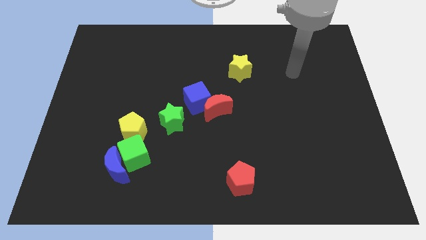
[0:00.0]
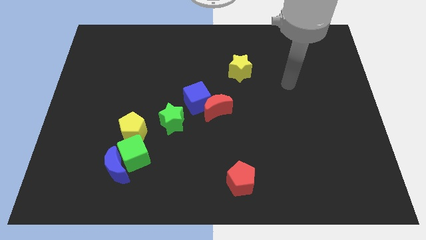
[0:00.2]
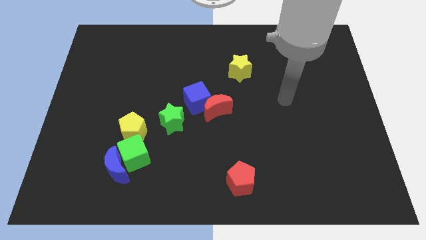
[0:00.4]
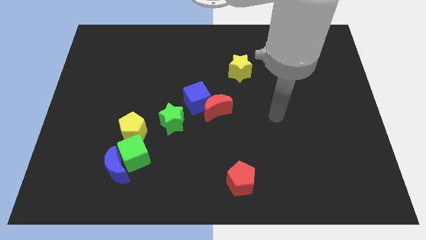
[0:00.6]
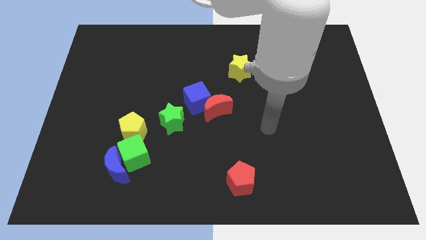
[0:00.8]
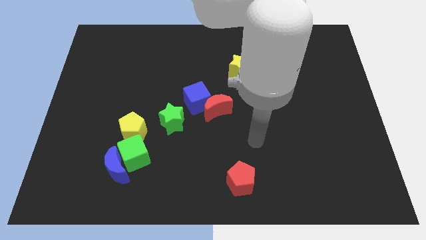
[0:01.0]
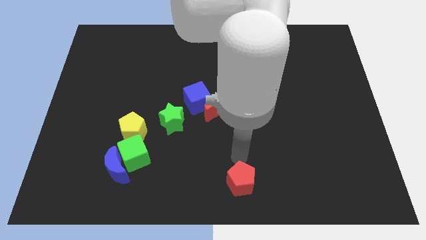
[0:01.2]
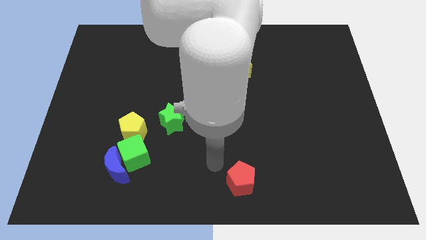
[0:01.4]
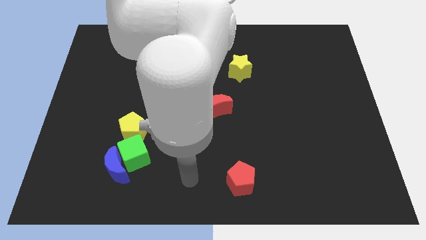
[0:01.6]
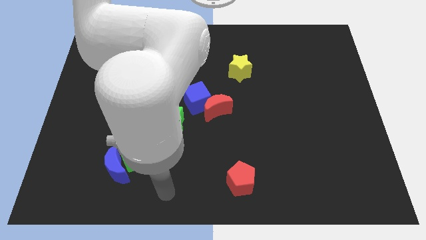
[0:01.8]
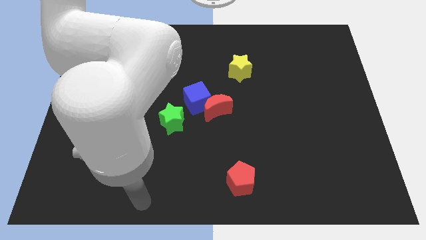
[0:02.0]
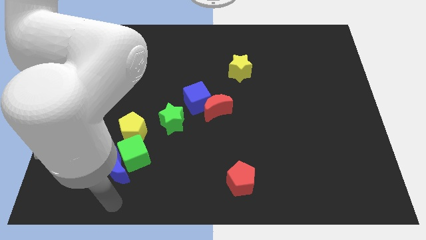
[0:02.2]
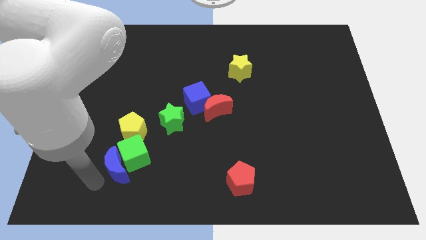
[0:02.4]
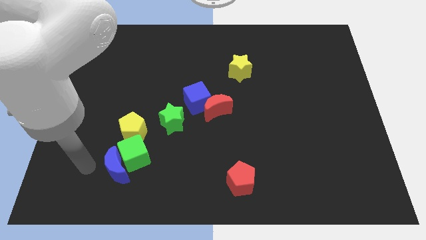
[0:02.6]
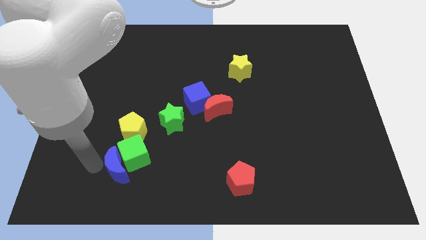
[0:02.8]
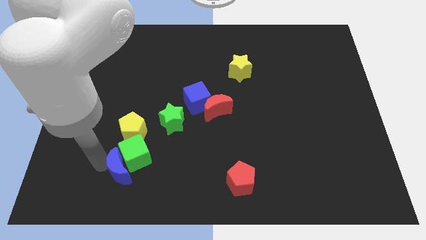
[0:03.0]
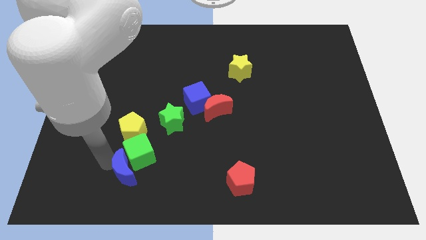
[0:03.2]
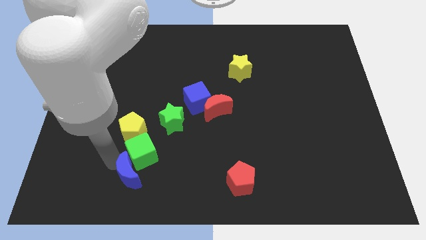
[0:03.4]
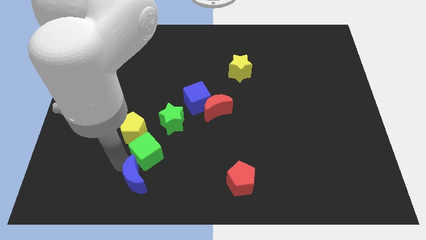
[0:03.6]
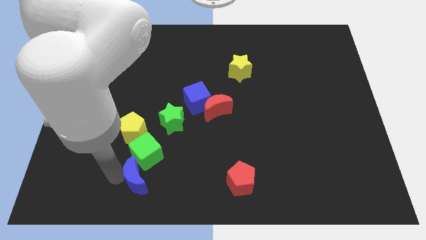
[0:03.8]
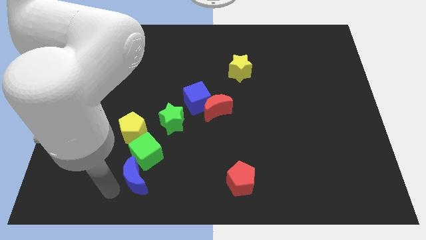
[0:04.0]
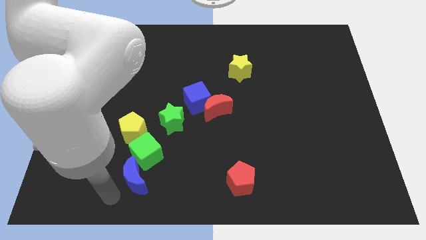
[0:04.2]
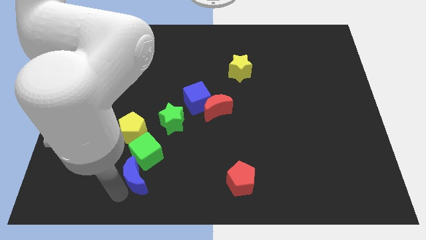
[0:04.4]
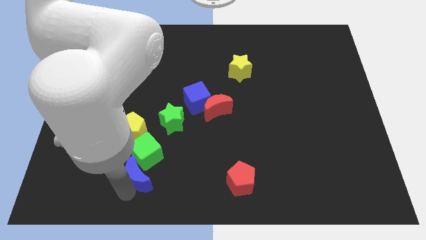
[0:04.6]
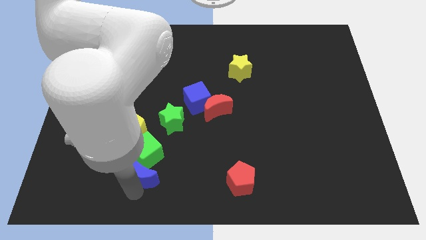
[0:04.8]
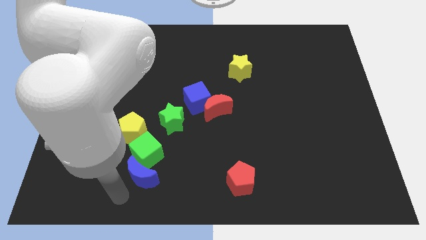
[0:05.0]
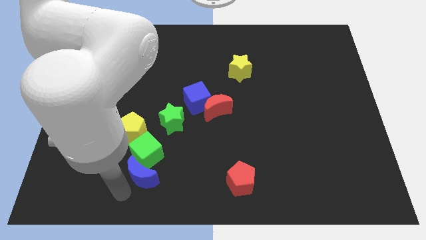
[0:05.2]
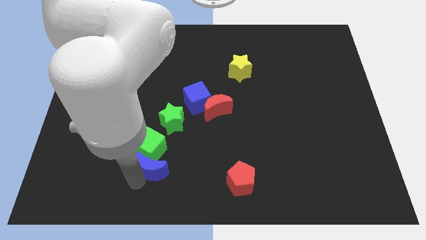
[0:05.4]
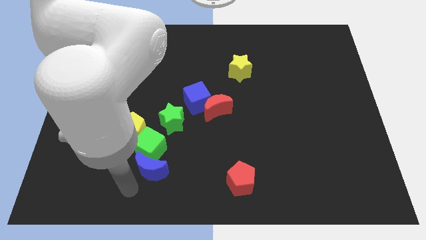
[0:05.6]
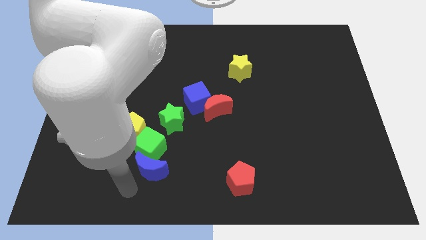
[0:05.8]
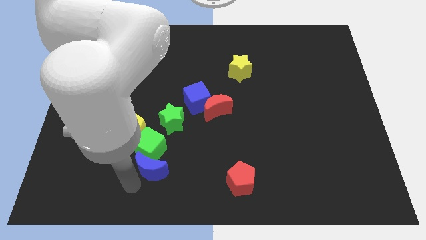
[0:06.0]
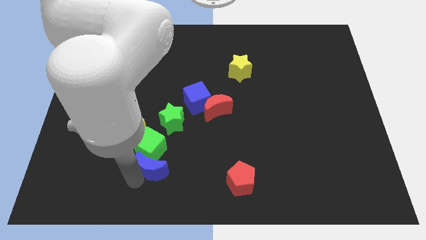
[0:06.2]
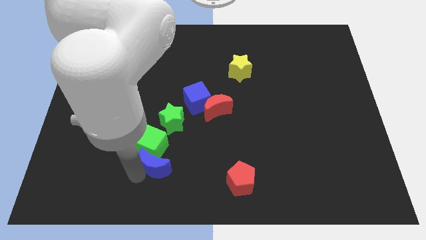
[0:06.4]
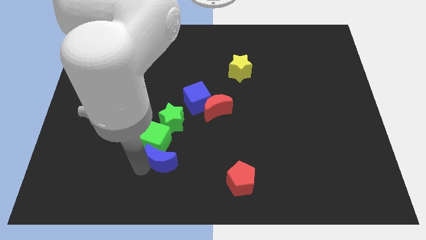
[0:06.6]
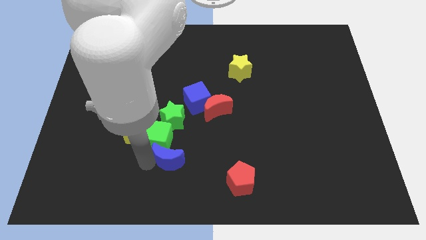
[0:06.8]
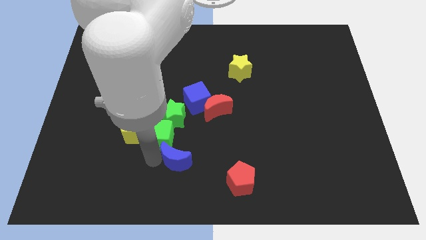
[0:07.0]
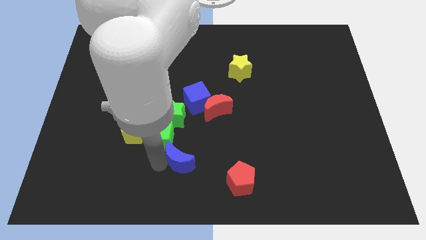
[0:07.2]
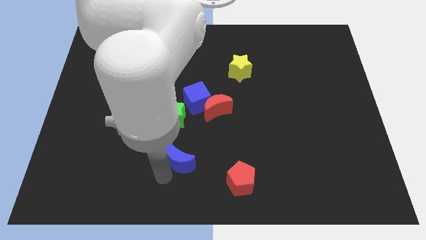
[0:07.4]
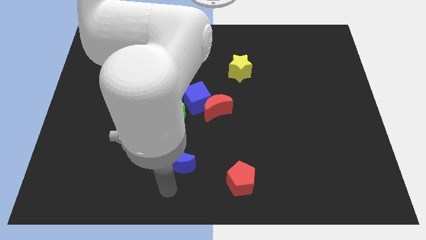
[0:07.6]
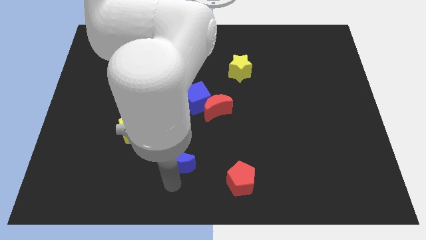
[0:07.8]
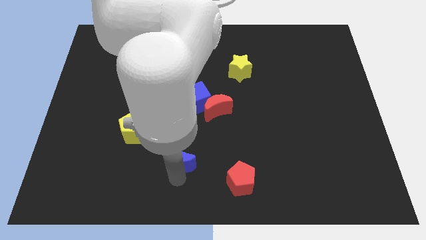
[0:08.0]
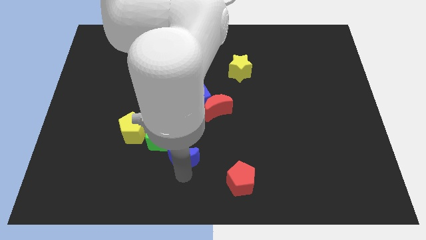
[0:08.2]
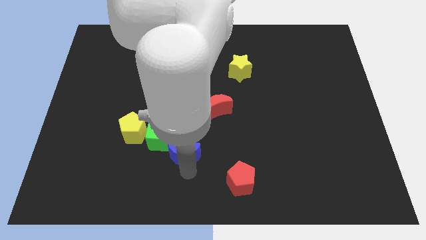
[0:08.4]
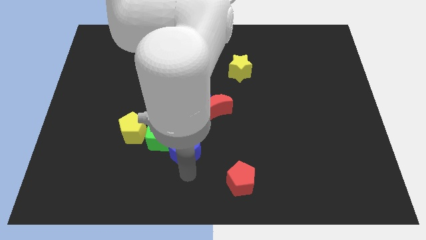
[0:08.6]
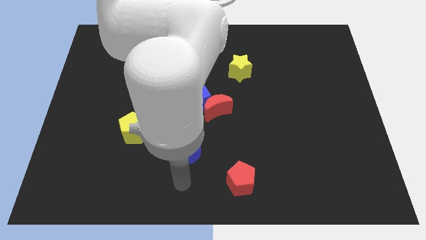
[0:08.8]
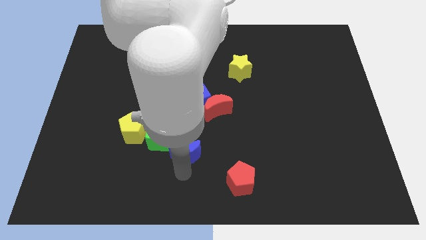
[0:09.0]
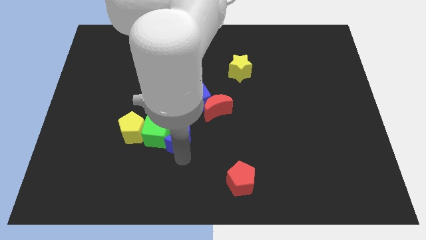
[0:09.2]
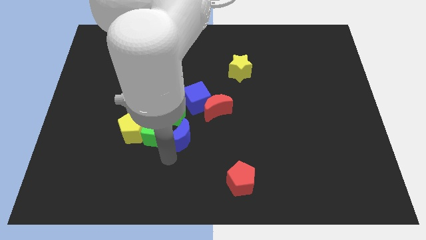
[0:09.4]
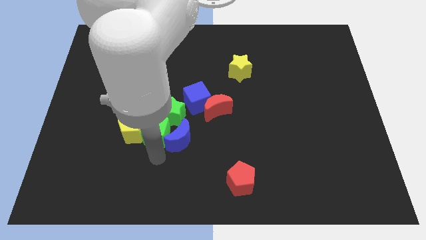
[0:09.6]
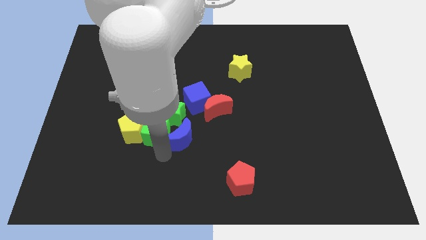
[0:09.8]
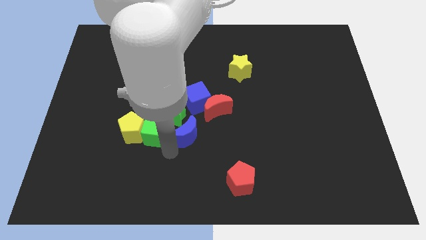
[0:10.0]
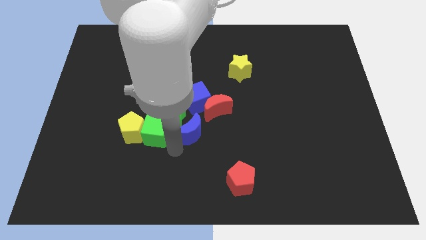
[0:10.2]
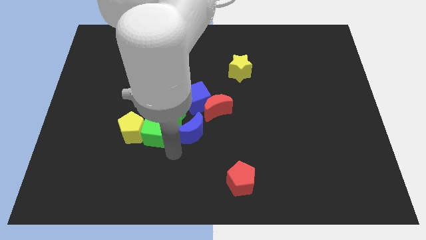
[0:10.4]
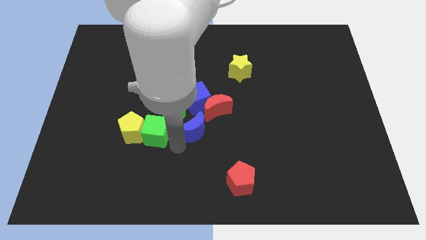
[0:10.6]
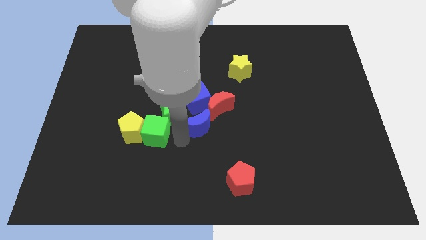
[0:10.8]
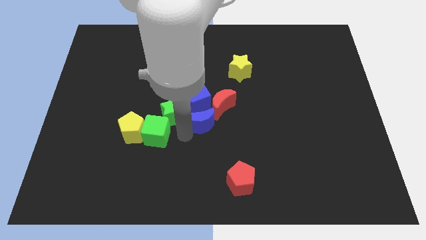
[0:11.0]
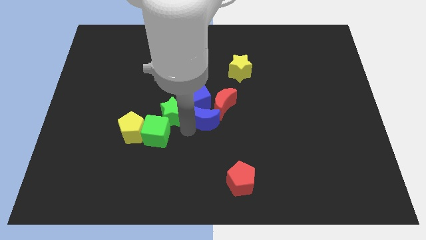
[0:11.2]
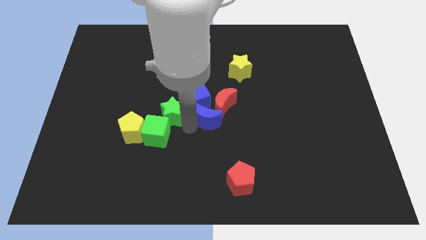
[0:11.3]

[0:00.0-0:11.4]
push the blue moon to the red moon

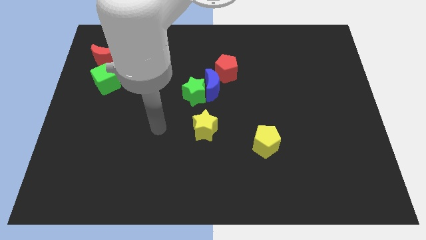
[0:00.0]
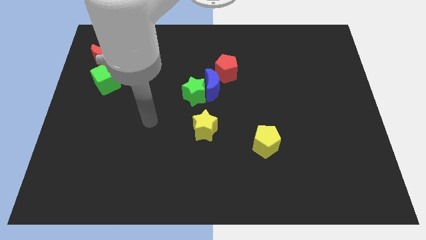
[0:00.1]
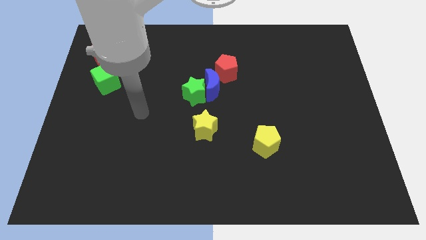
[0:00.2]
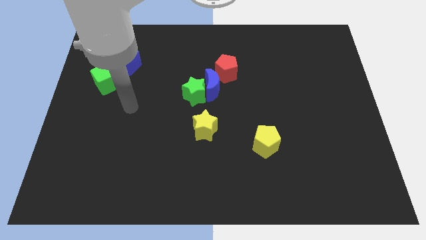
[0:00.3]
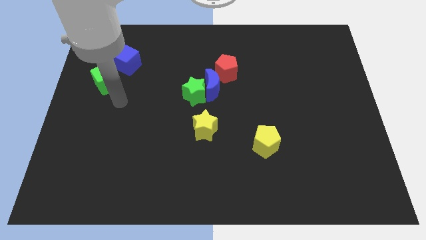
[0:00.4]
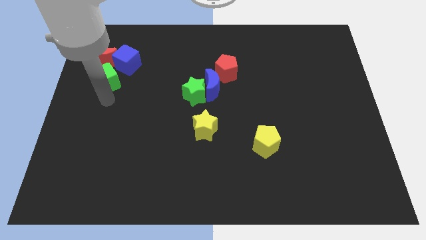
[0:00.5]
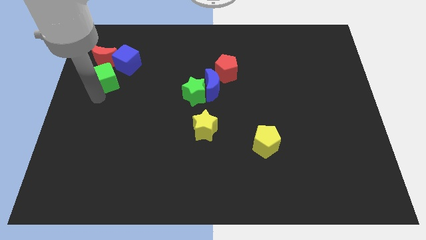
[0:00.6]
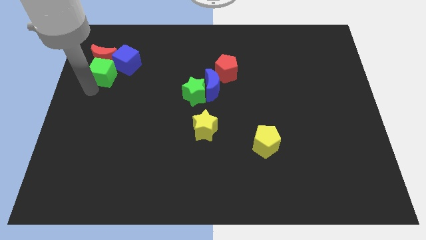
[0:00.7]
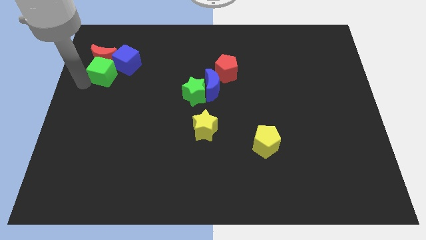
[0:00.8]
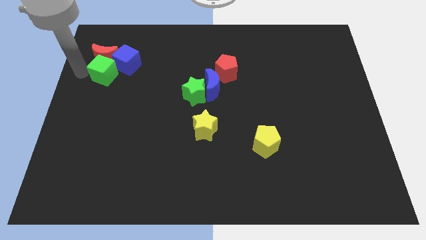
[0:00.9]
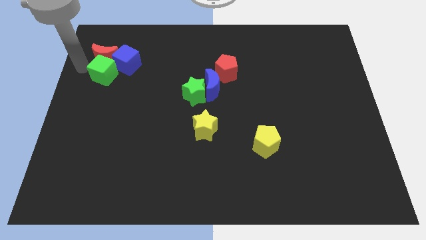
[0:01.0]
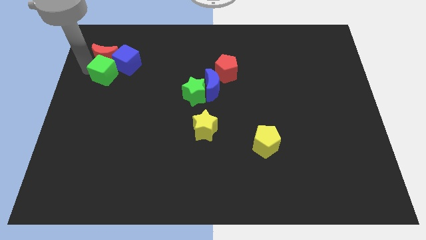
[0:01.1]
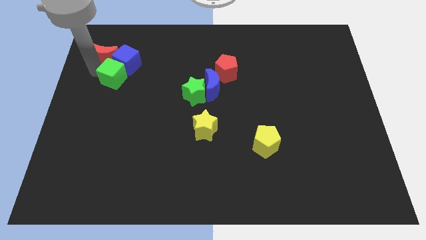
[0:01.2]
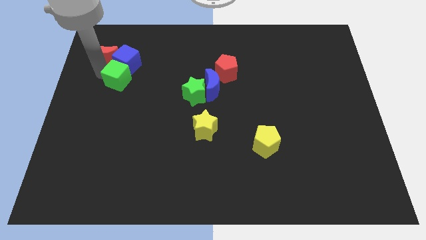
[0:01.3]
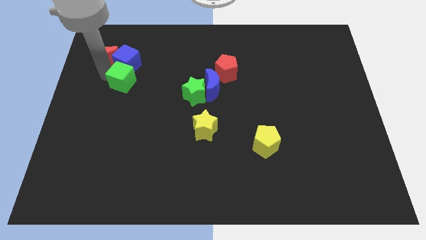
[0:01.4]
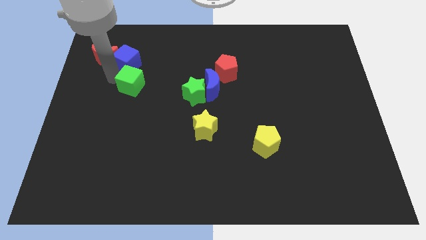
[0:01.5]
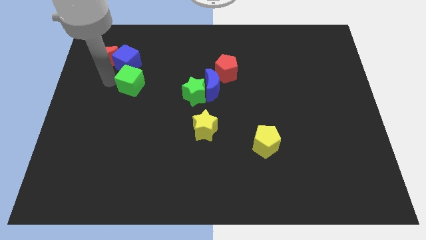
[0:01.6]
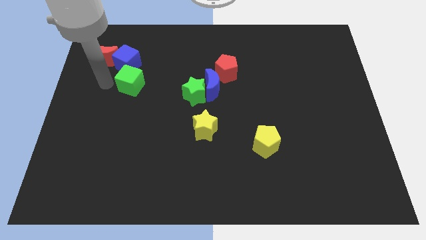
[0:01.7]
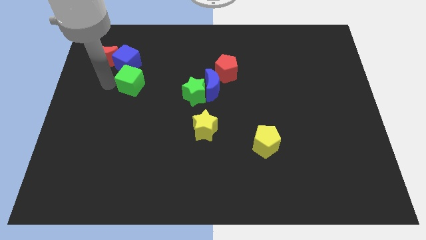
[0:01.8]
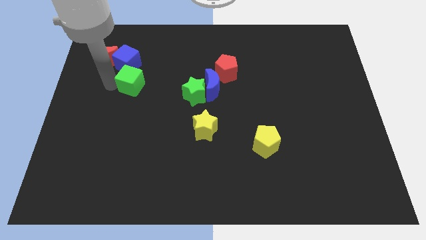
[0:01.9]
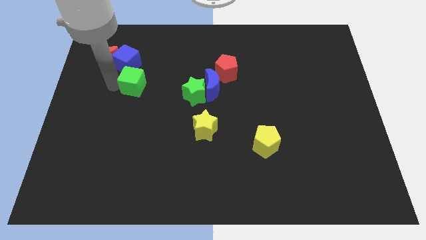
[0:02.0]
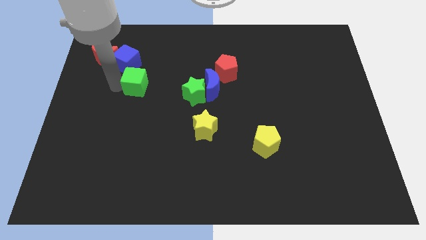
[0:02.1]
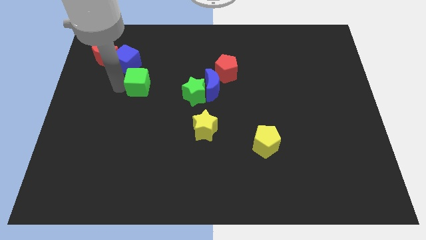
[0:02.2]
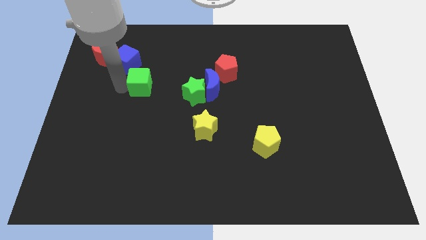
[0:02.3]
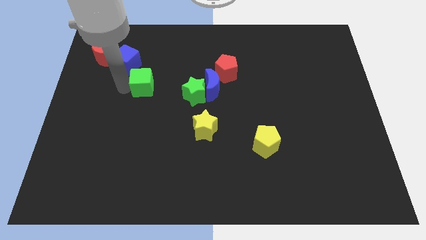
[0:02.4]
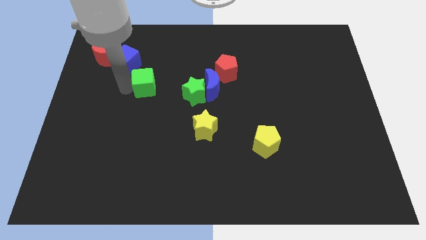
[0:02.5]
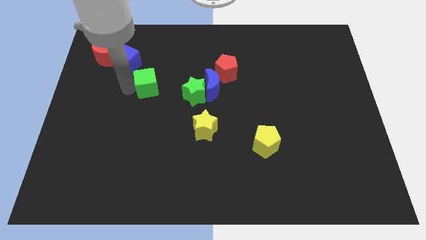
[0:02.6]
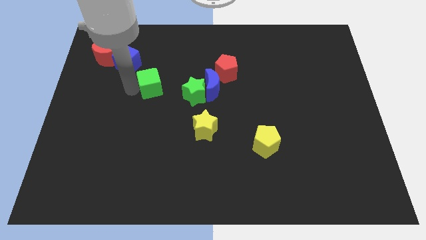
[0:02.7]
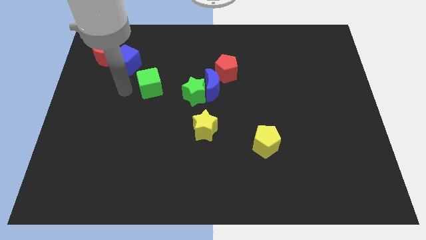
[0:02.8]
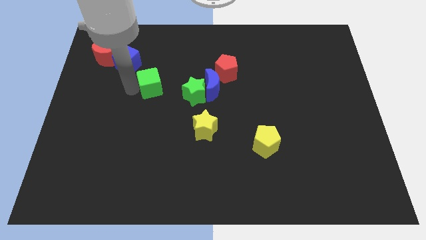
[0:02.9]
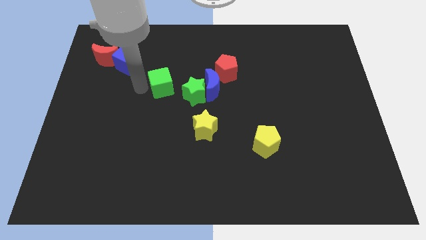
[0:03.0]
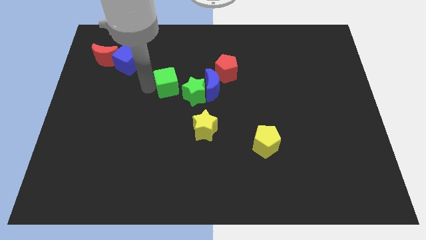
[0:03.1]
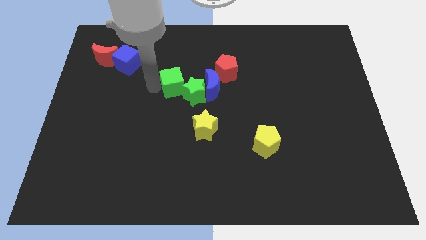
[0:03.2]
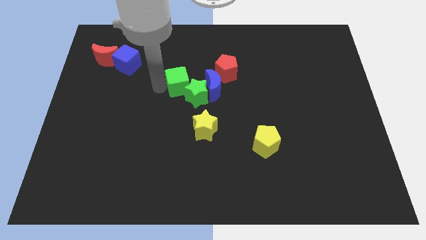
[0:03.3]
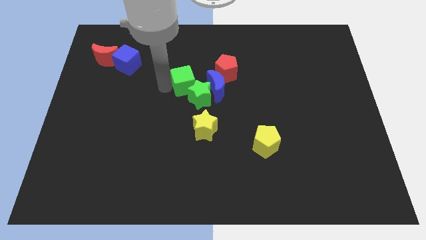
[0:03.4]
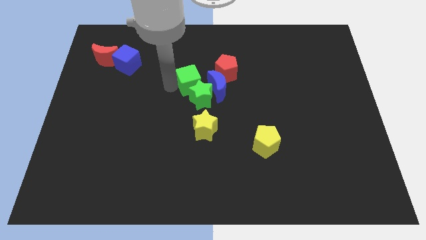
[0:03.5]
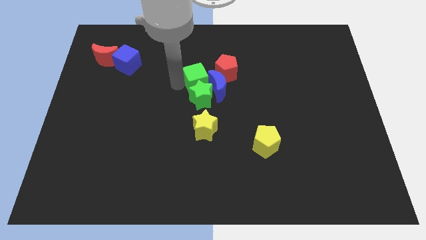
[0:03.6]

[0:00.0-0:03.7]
slide the green cube to the blue moon
